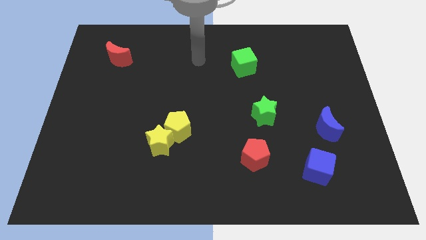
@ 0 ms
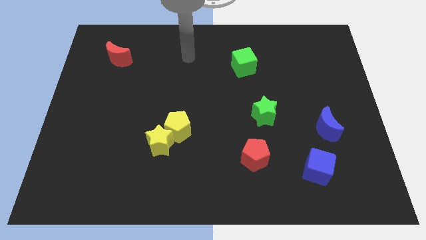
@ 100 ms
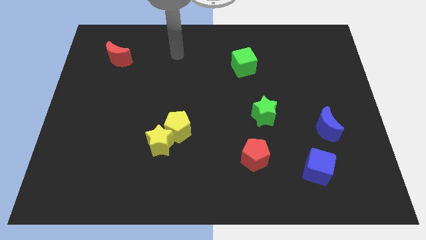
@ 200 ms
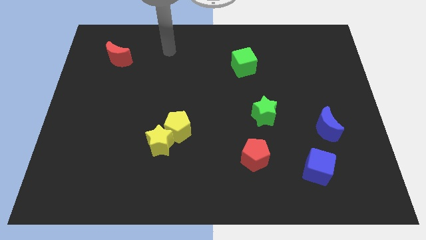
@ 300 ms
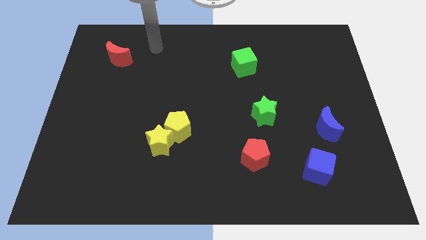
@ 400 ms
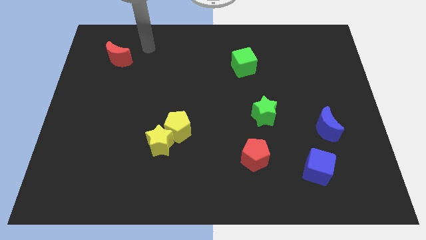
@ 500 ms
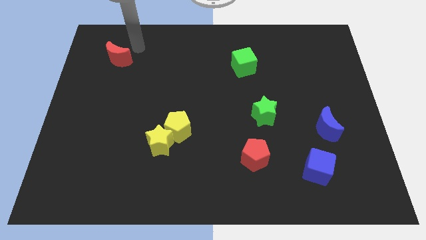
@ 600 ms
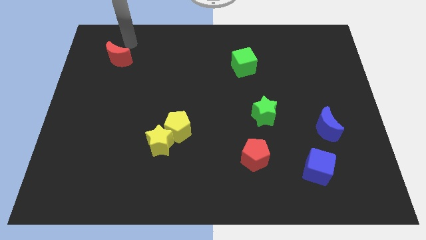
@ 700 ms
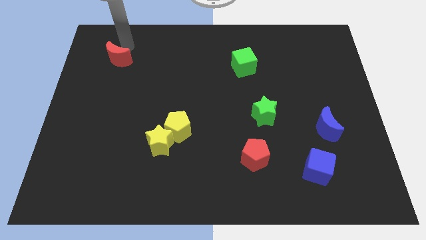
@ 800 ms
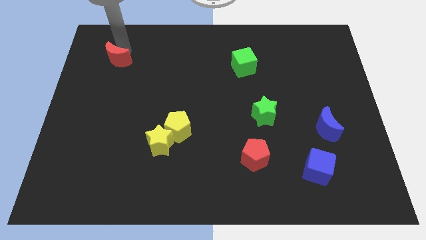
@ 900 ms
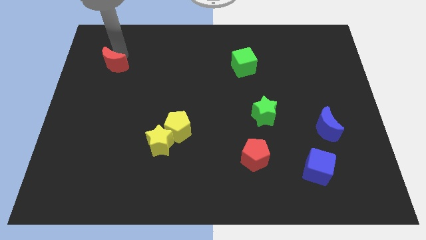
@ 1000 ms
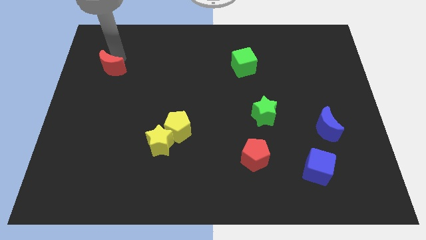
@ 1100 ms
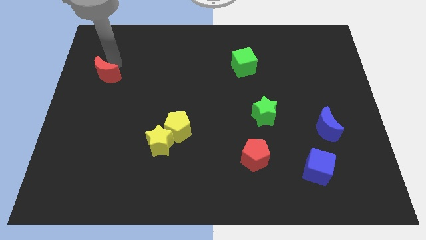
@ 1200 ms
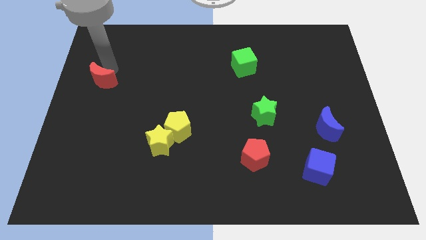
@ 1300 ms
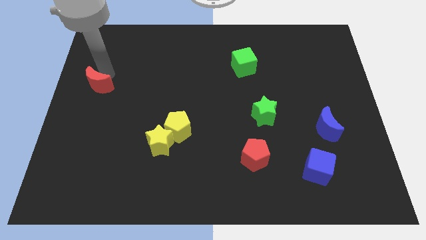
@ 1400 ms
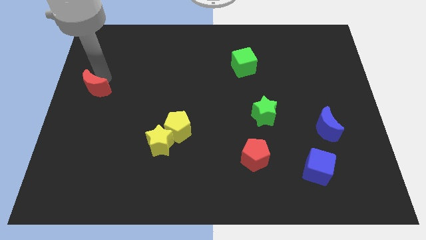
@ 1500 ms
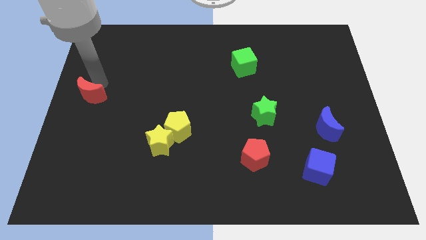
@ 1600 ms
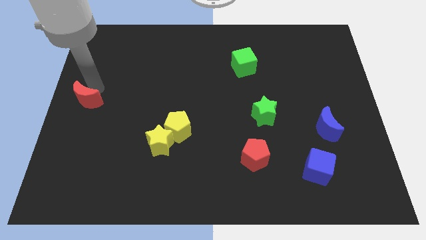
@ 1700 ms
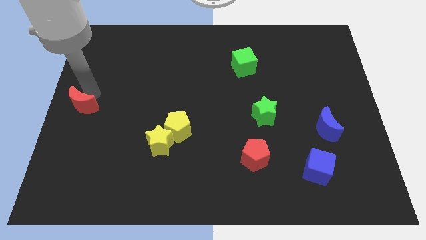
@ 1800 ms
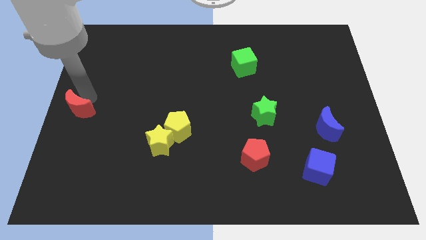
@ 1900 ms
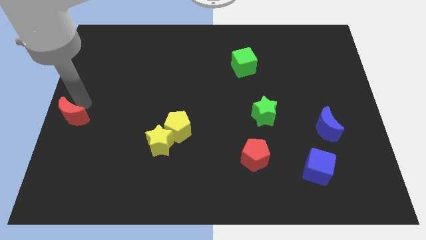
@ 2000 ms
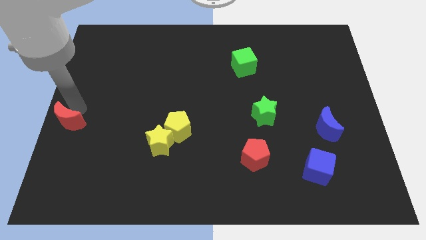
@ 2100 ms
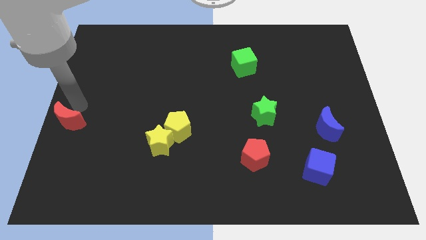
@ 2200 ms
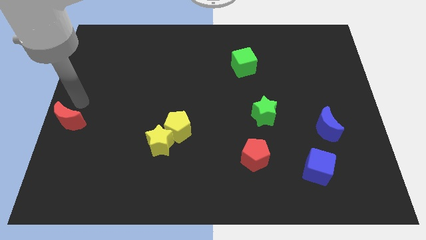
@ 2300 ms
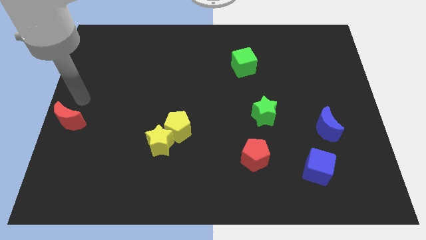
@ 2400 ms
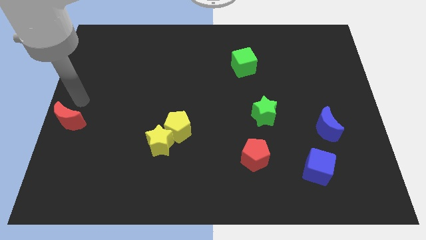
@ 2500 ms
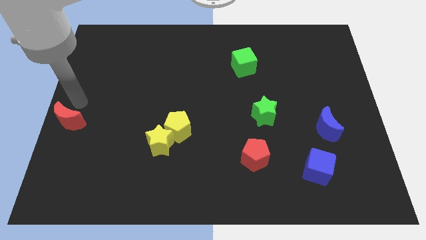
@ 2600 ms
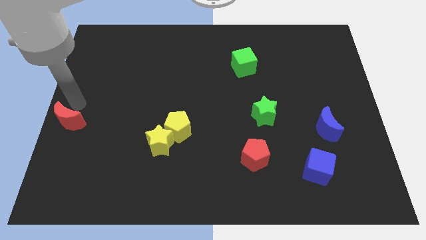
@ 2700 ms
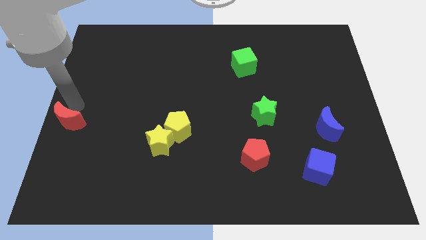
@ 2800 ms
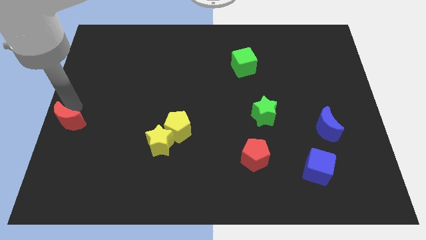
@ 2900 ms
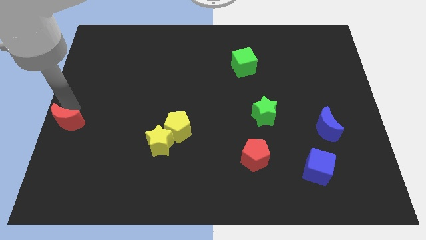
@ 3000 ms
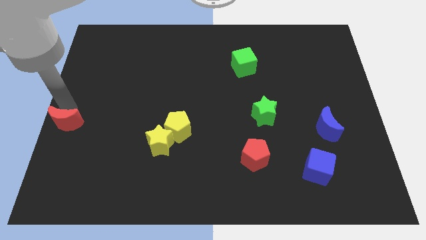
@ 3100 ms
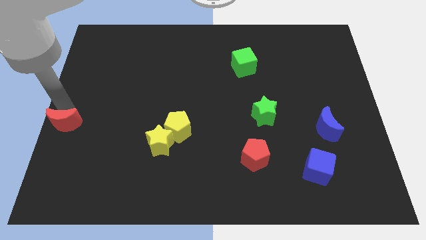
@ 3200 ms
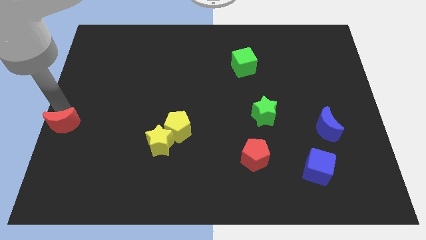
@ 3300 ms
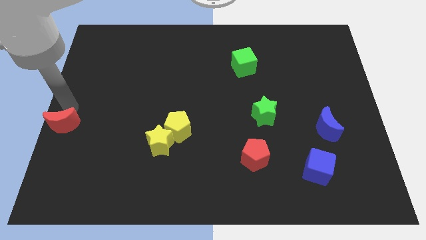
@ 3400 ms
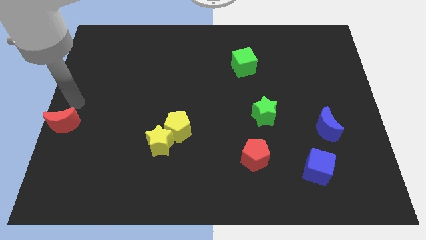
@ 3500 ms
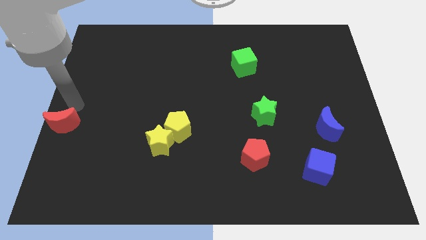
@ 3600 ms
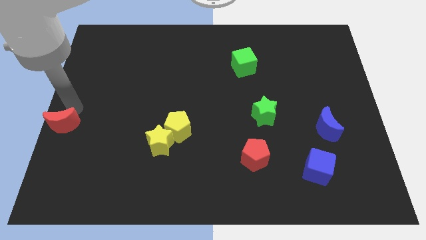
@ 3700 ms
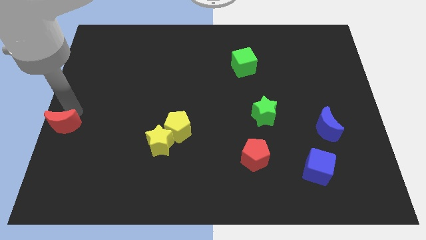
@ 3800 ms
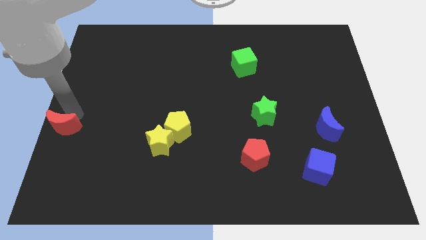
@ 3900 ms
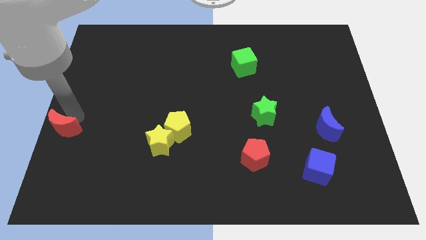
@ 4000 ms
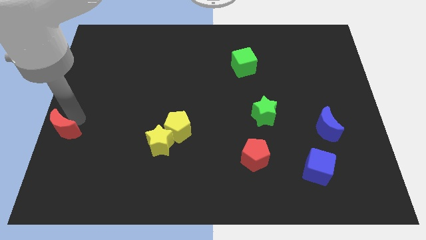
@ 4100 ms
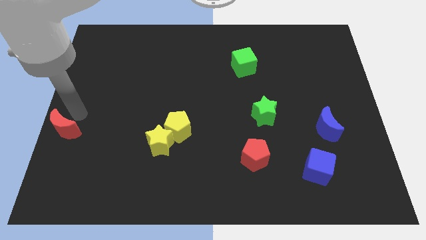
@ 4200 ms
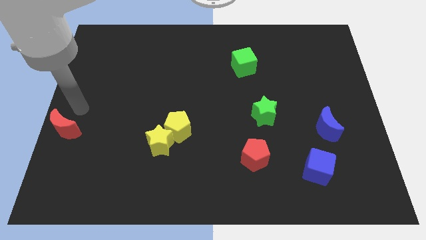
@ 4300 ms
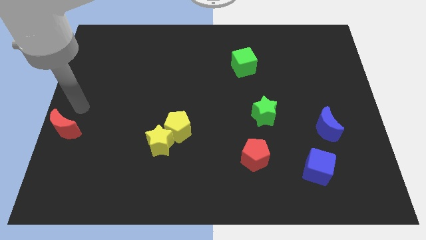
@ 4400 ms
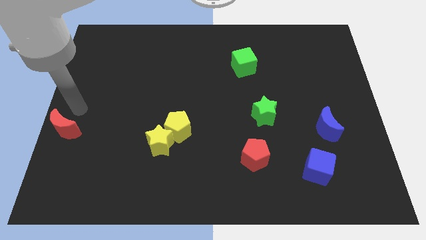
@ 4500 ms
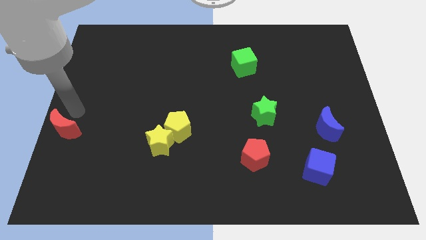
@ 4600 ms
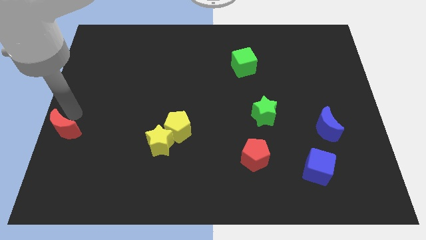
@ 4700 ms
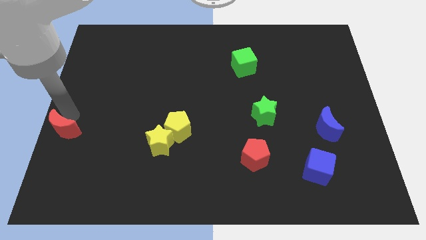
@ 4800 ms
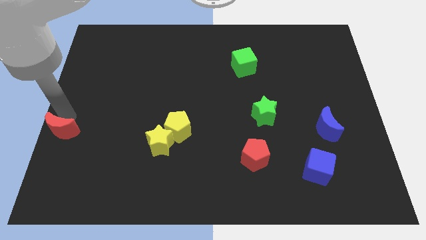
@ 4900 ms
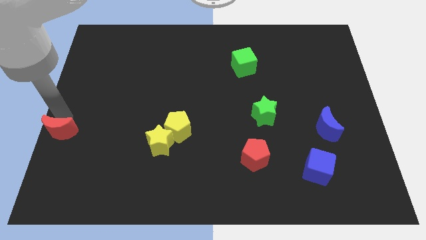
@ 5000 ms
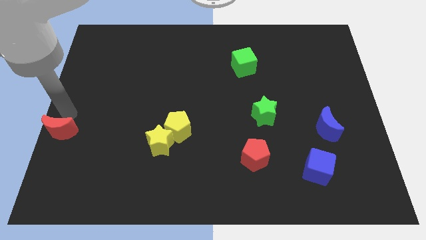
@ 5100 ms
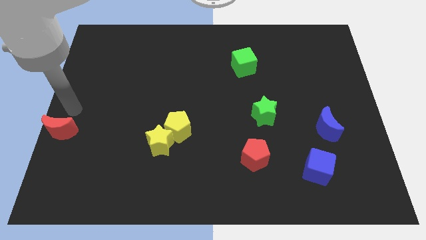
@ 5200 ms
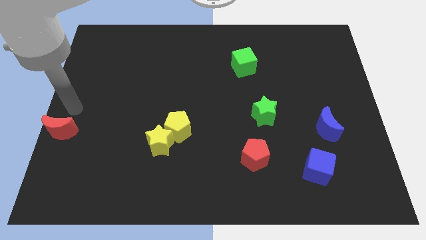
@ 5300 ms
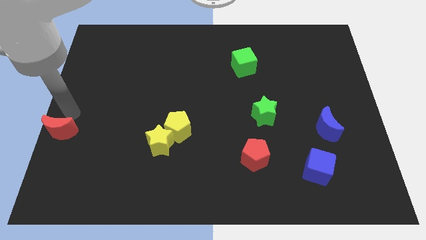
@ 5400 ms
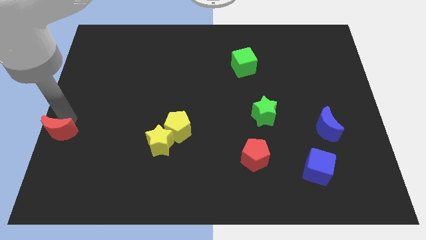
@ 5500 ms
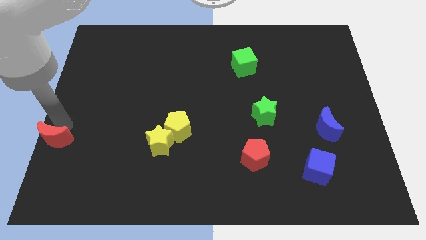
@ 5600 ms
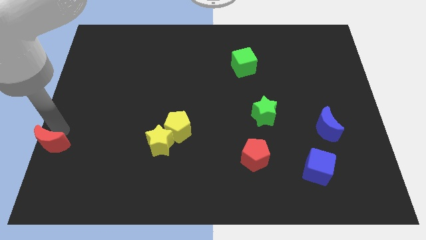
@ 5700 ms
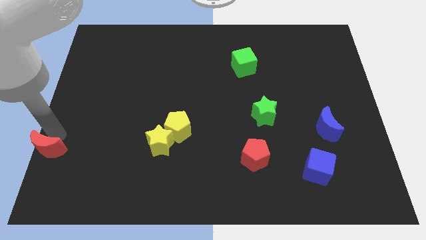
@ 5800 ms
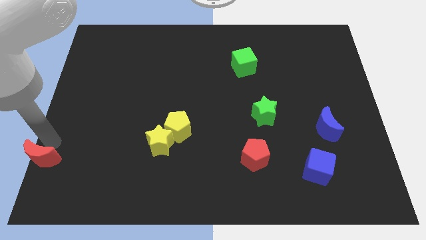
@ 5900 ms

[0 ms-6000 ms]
move the red moon to the lower left corner

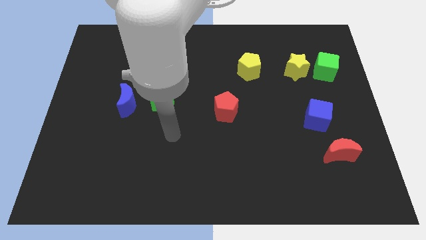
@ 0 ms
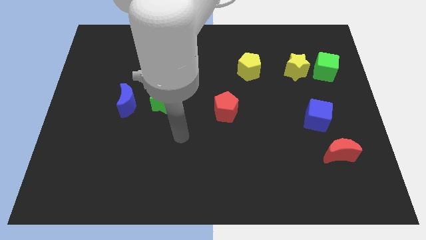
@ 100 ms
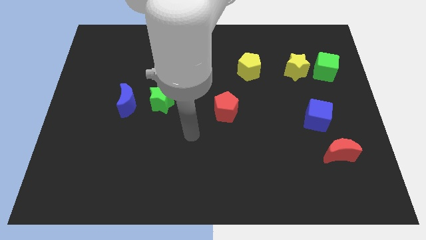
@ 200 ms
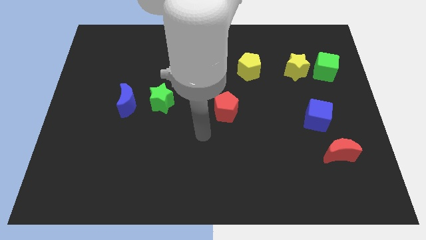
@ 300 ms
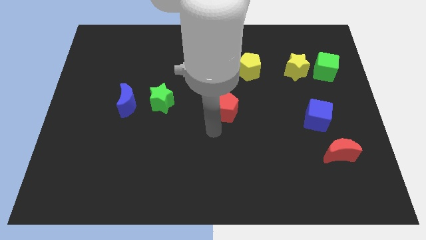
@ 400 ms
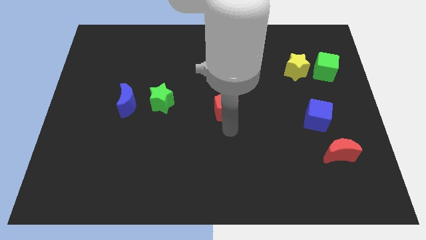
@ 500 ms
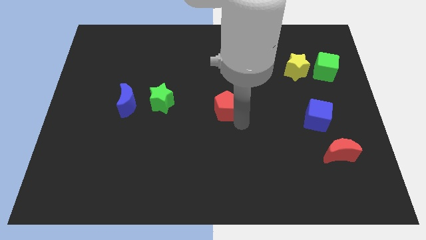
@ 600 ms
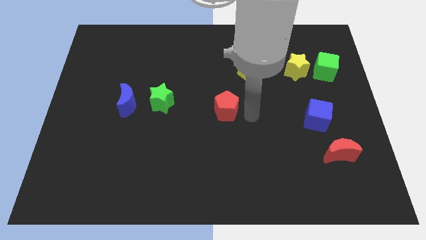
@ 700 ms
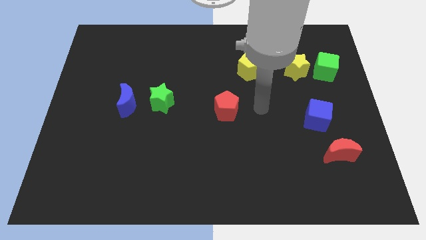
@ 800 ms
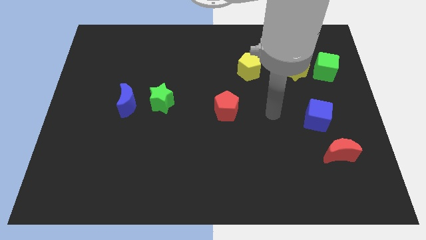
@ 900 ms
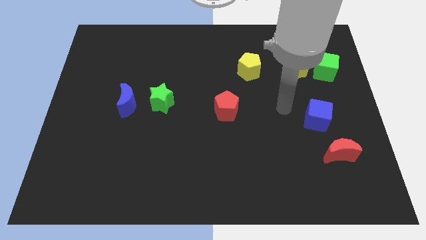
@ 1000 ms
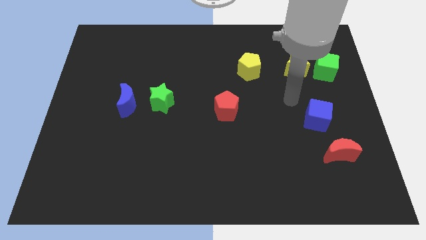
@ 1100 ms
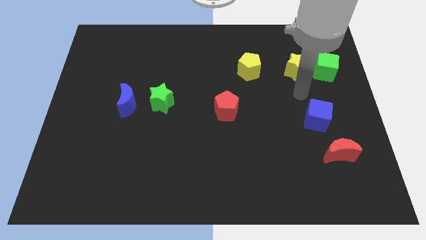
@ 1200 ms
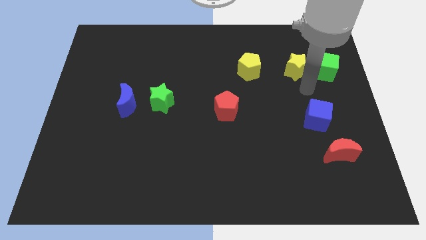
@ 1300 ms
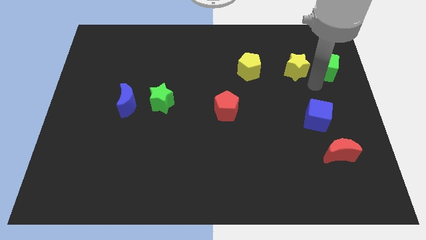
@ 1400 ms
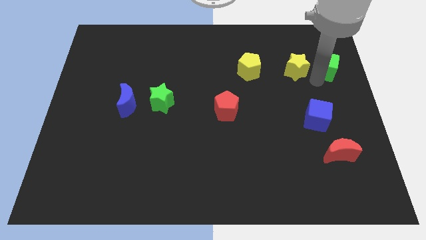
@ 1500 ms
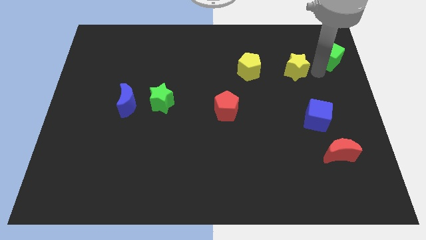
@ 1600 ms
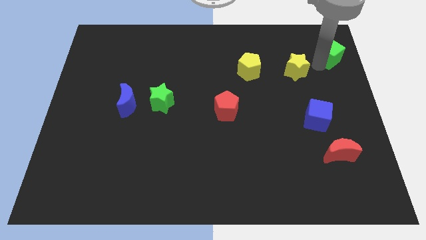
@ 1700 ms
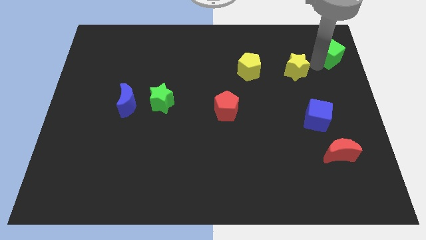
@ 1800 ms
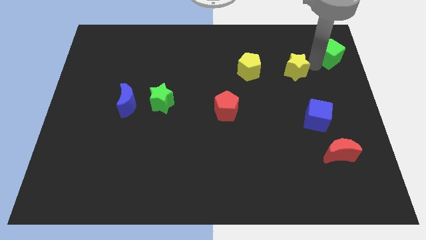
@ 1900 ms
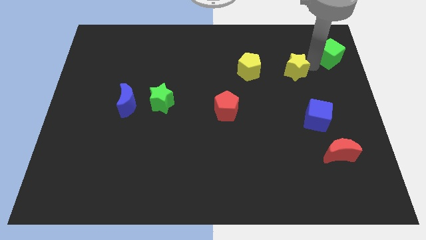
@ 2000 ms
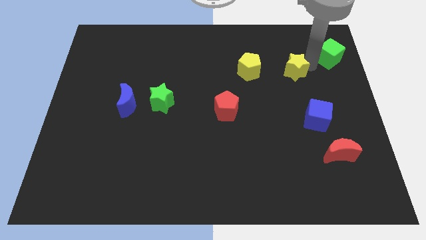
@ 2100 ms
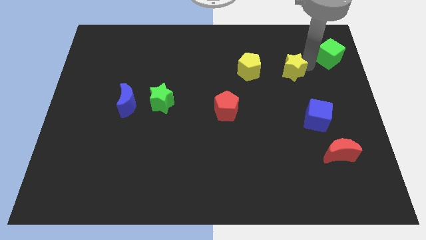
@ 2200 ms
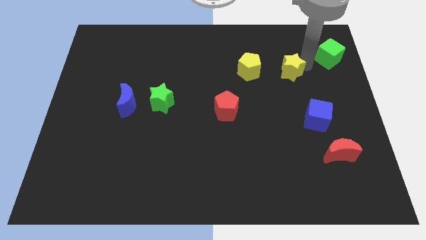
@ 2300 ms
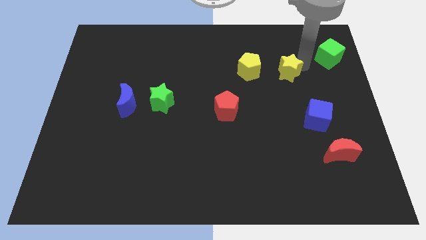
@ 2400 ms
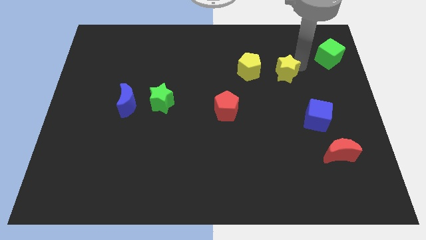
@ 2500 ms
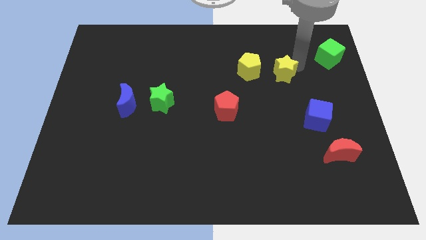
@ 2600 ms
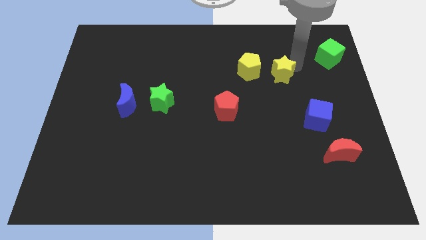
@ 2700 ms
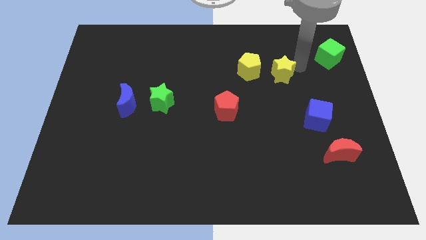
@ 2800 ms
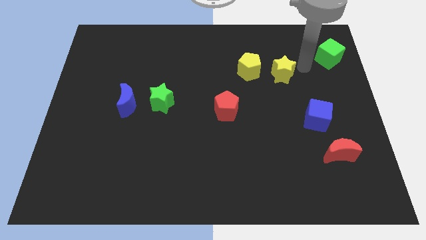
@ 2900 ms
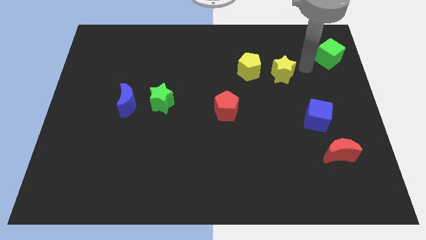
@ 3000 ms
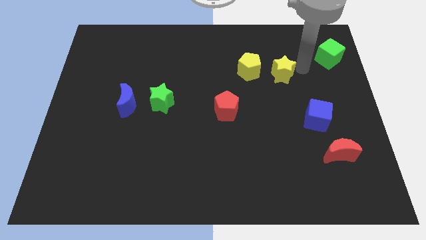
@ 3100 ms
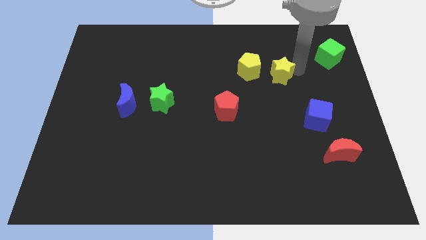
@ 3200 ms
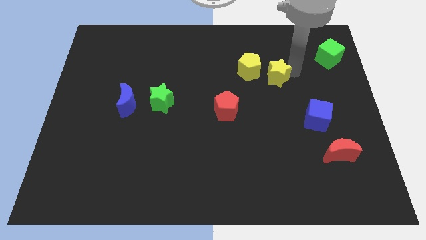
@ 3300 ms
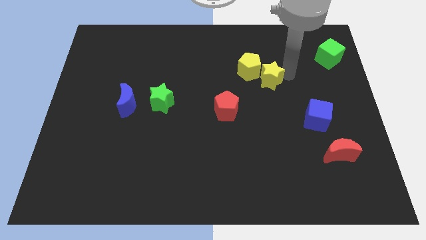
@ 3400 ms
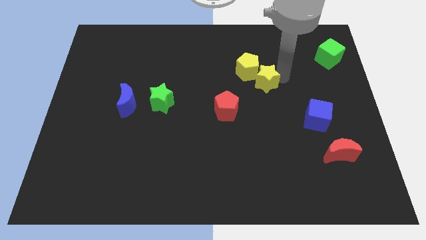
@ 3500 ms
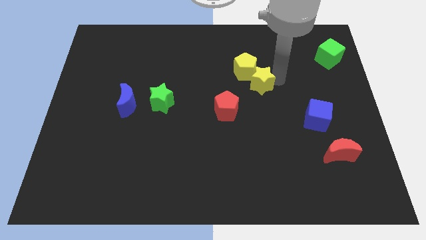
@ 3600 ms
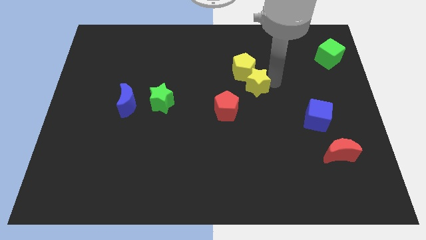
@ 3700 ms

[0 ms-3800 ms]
move the yellow star to the center
